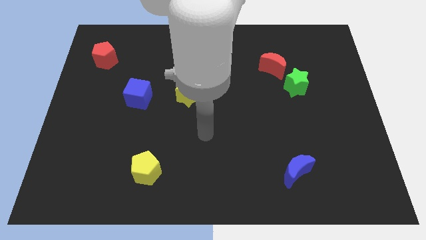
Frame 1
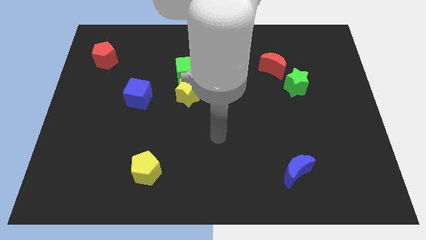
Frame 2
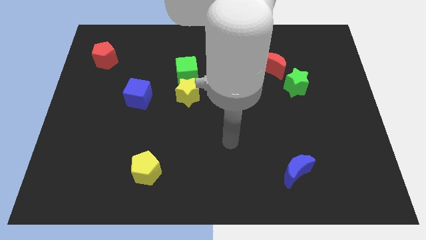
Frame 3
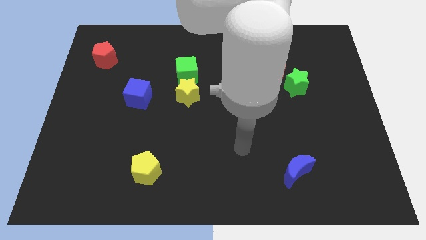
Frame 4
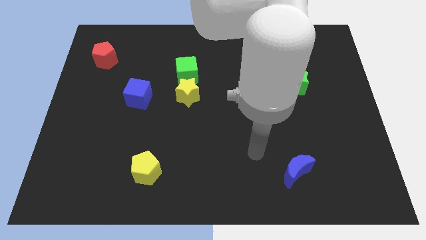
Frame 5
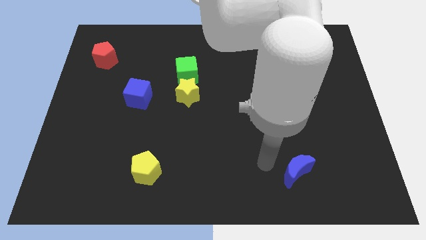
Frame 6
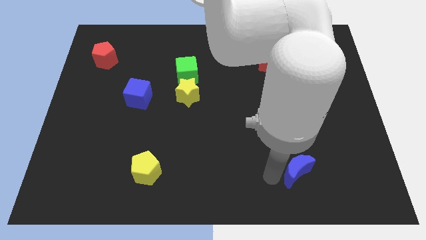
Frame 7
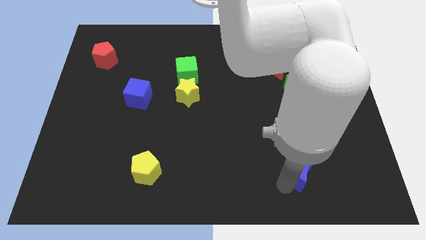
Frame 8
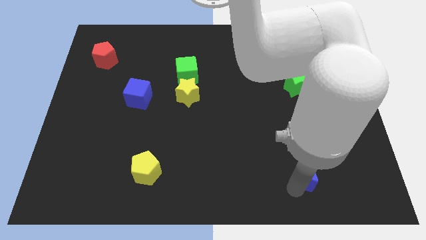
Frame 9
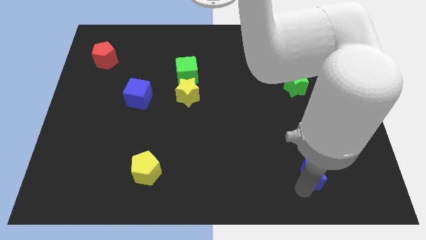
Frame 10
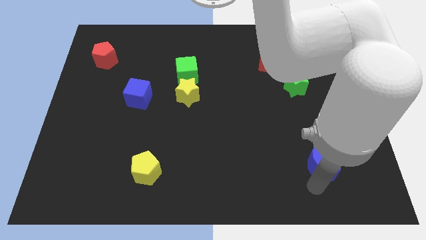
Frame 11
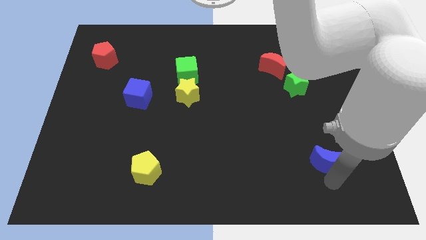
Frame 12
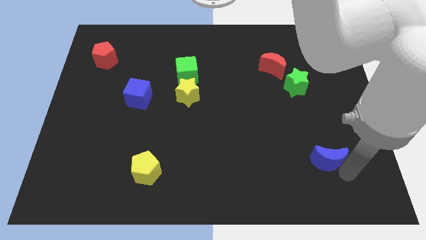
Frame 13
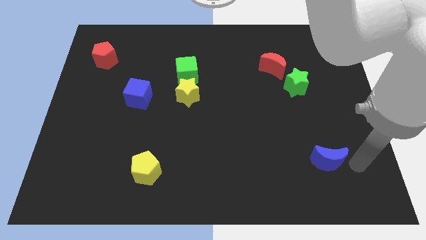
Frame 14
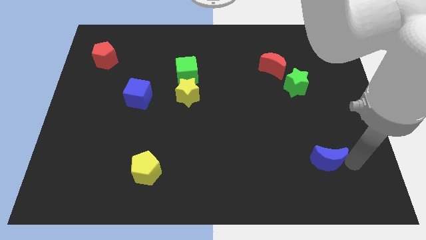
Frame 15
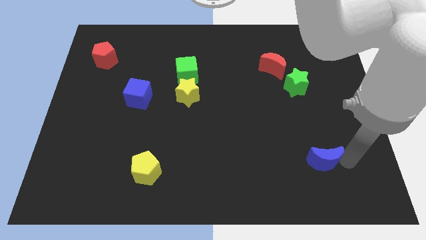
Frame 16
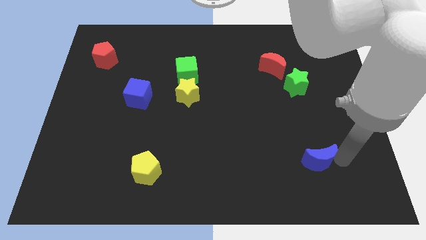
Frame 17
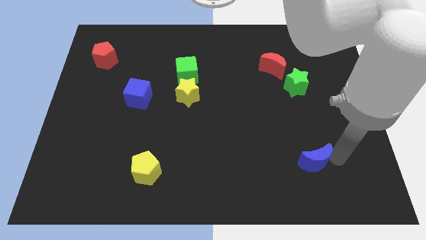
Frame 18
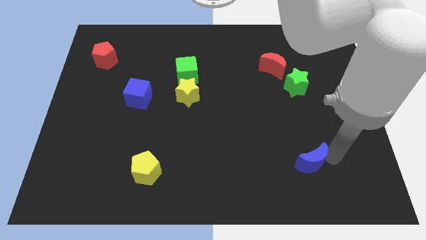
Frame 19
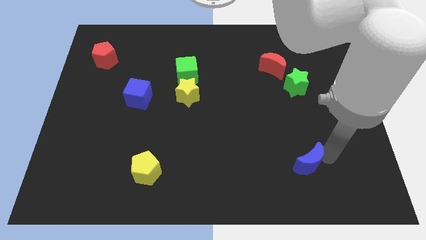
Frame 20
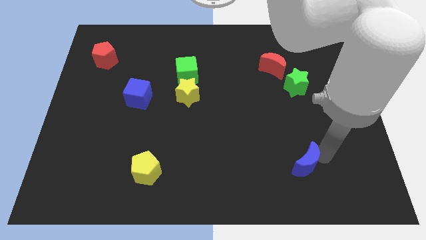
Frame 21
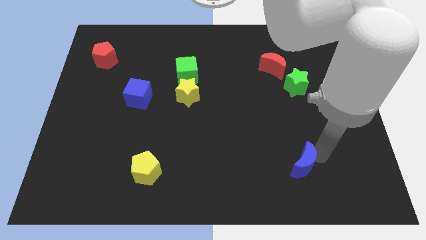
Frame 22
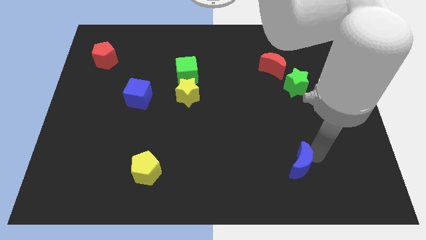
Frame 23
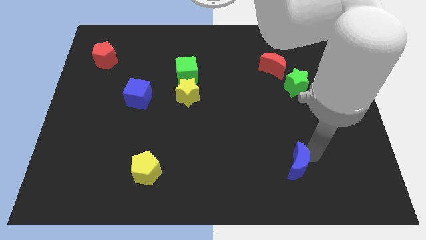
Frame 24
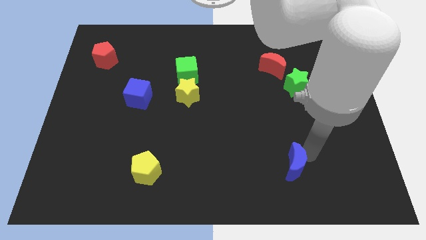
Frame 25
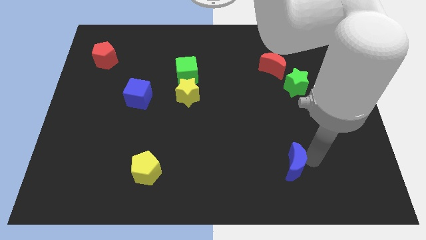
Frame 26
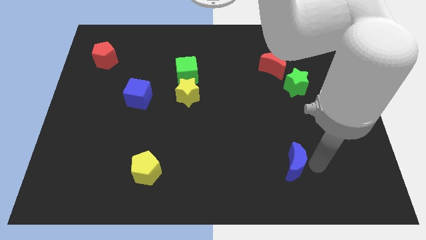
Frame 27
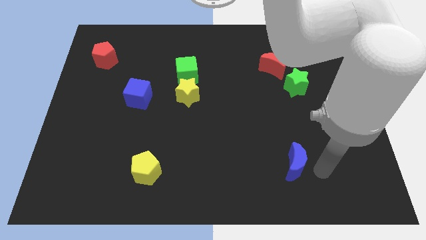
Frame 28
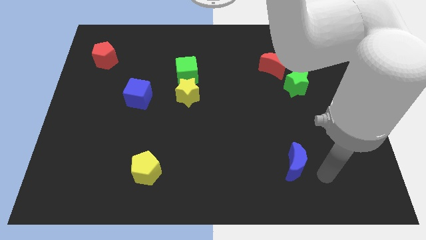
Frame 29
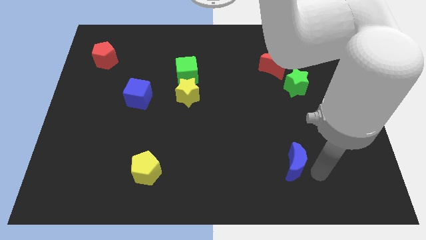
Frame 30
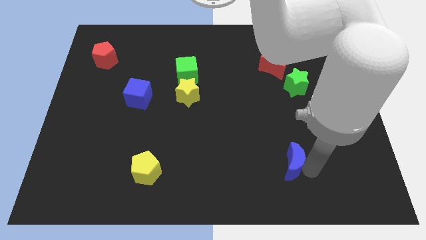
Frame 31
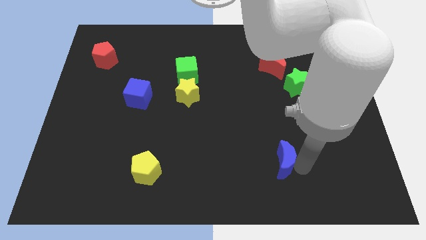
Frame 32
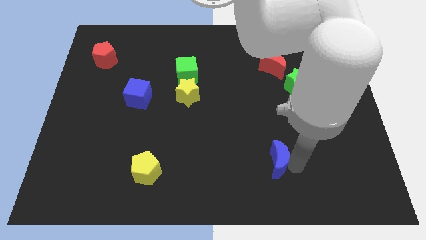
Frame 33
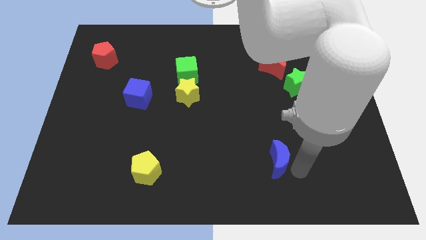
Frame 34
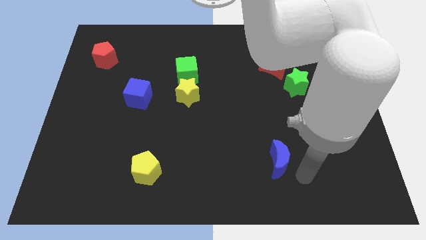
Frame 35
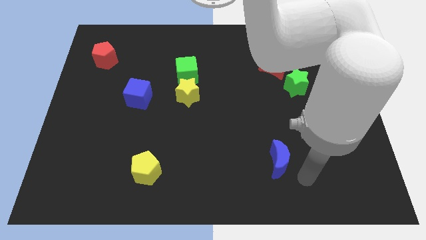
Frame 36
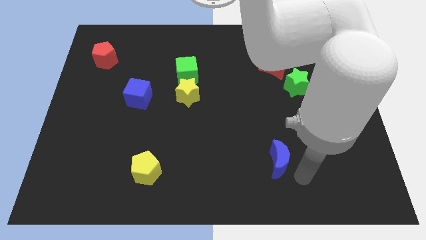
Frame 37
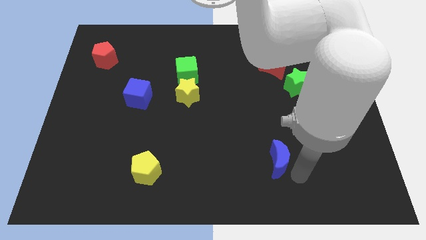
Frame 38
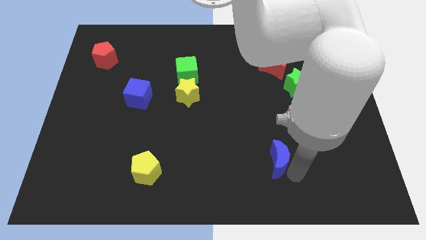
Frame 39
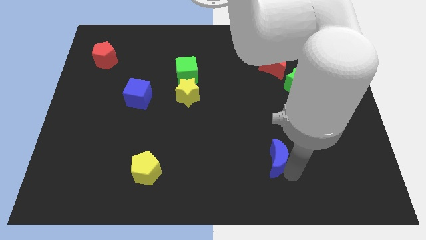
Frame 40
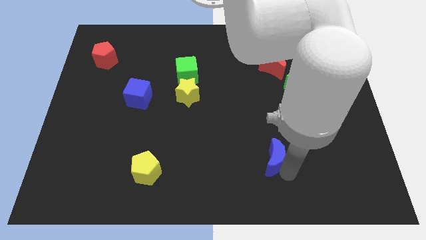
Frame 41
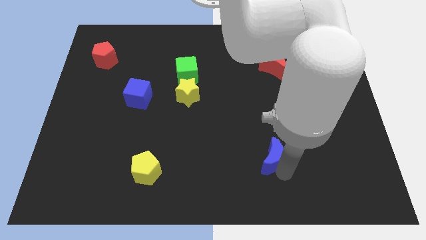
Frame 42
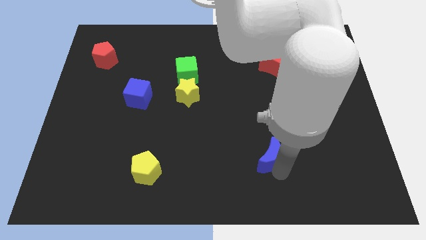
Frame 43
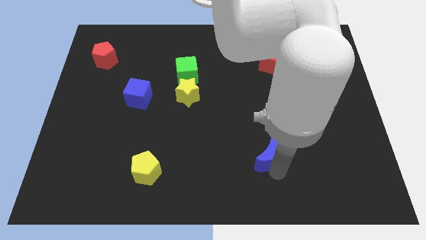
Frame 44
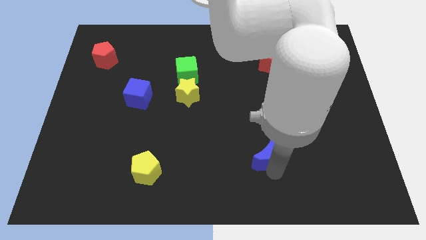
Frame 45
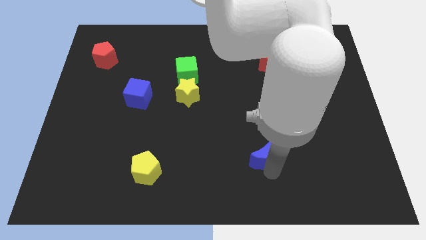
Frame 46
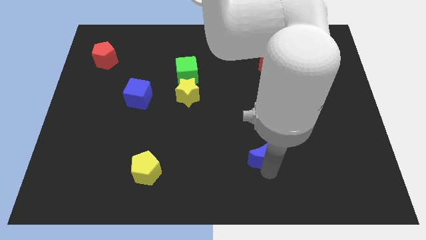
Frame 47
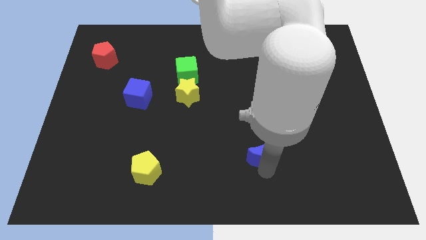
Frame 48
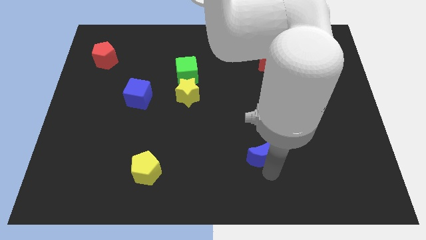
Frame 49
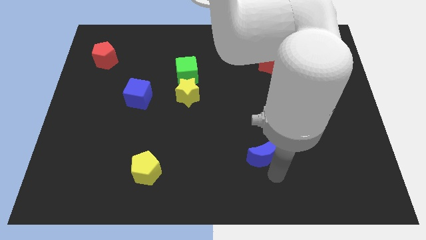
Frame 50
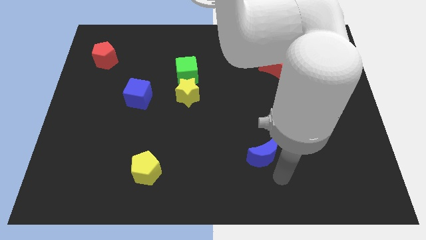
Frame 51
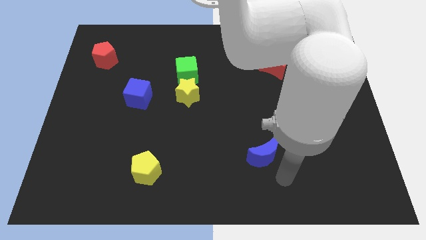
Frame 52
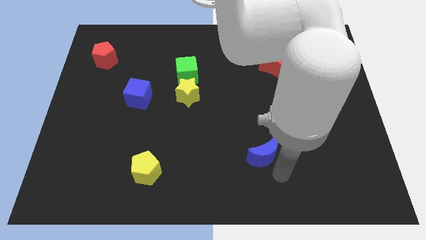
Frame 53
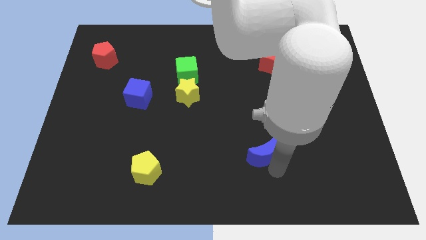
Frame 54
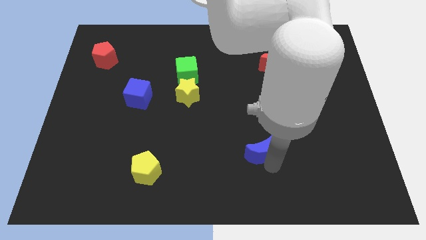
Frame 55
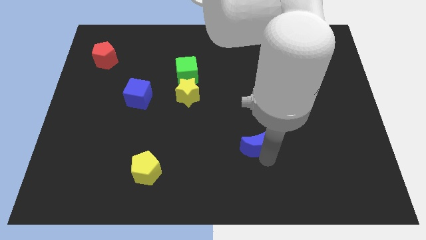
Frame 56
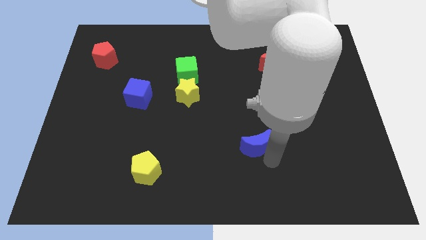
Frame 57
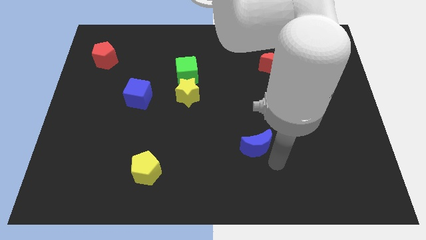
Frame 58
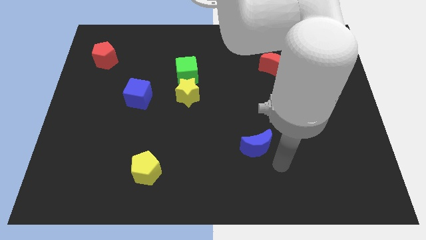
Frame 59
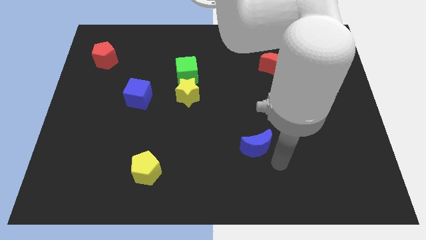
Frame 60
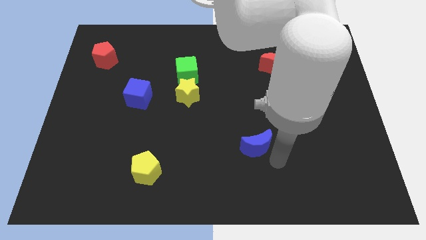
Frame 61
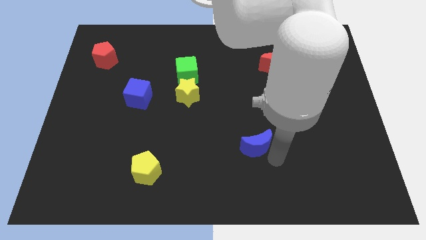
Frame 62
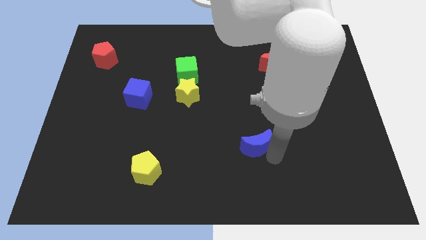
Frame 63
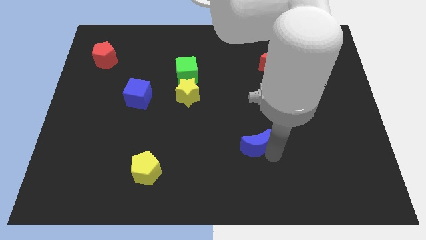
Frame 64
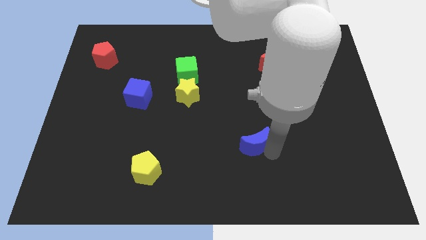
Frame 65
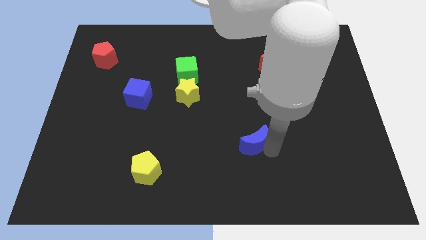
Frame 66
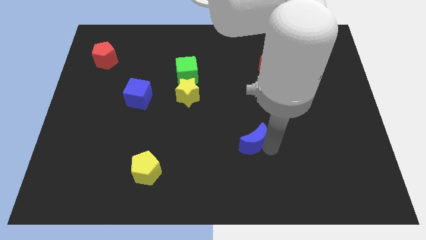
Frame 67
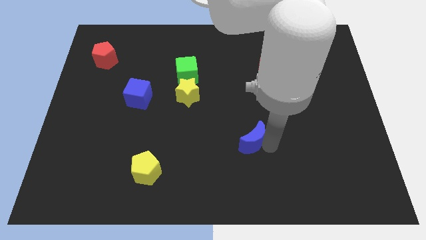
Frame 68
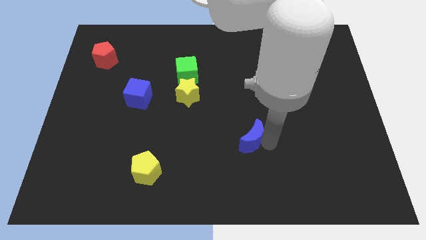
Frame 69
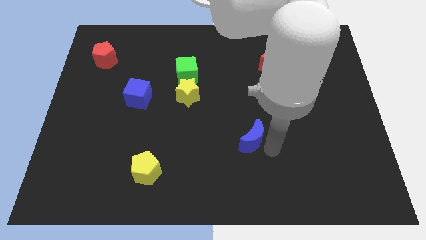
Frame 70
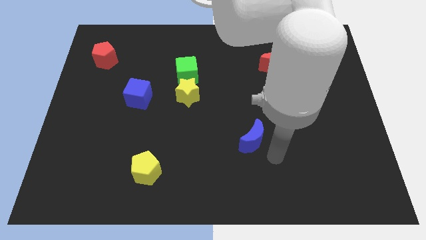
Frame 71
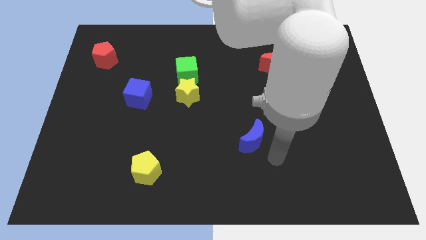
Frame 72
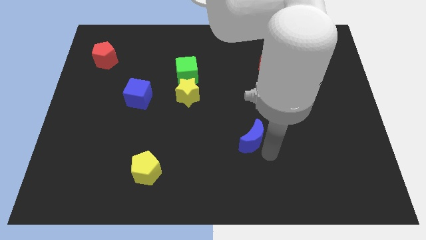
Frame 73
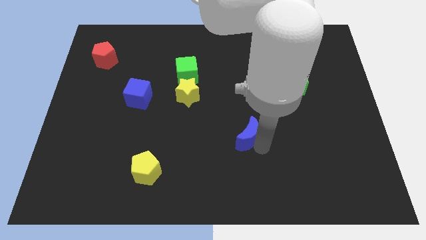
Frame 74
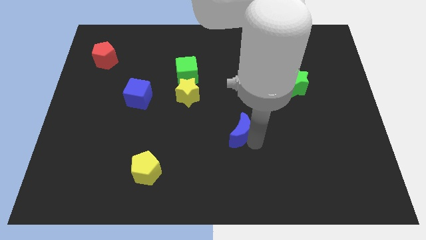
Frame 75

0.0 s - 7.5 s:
slide the blue moon to the center of the board
